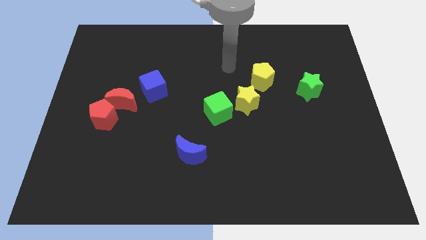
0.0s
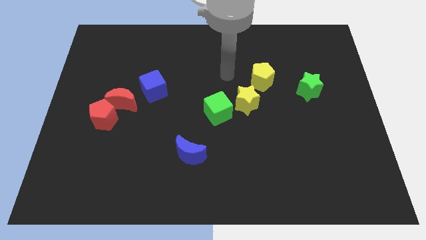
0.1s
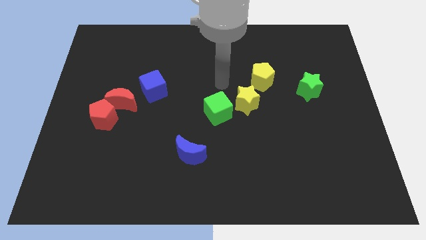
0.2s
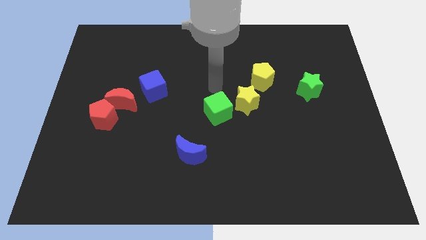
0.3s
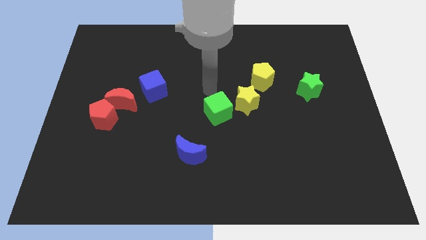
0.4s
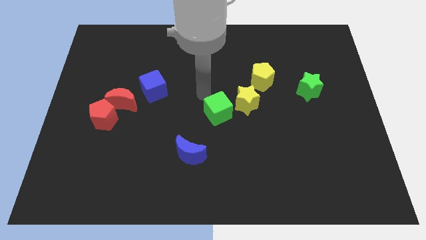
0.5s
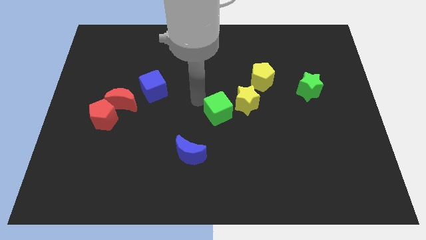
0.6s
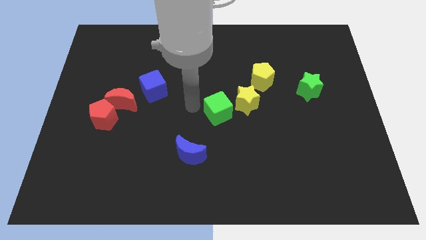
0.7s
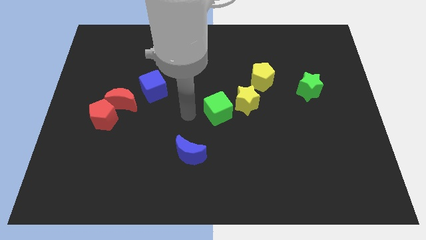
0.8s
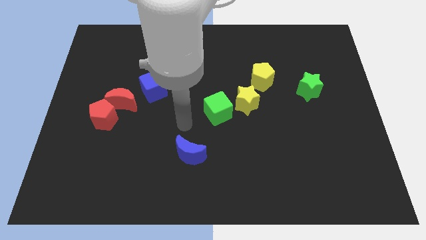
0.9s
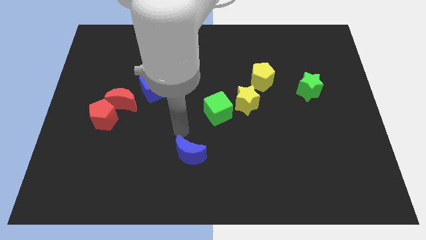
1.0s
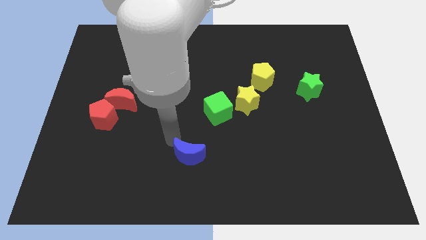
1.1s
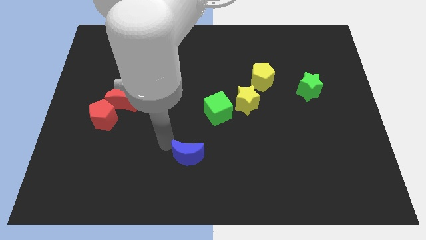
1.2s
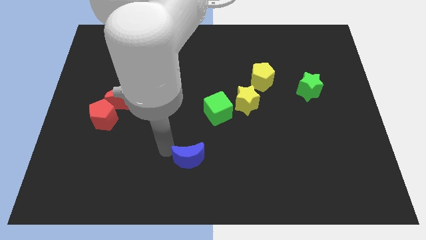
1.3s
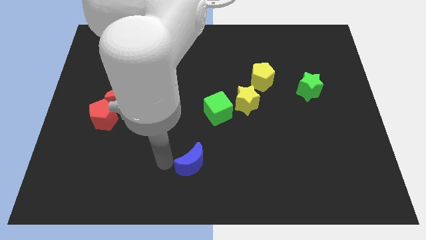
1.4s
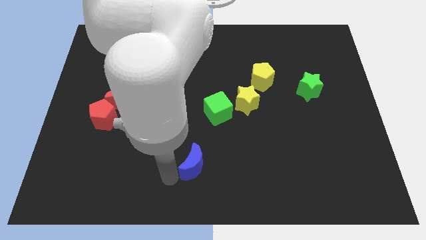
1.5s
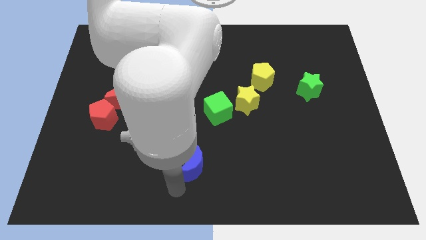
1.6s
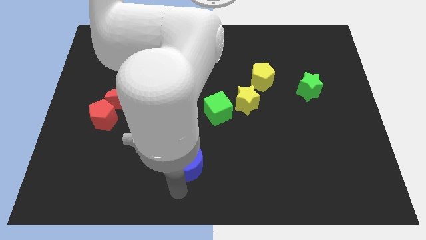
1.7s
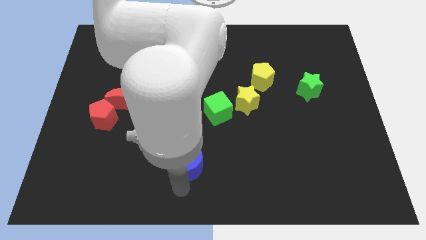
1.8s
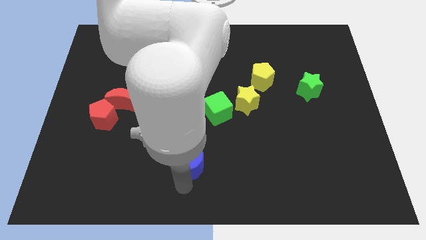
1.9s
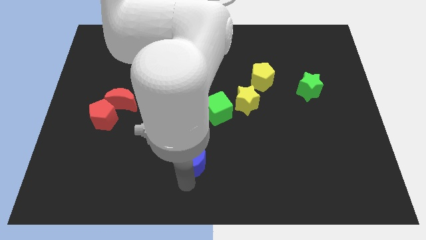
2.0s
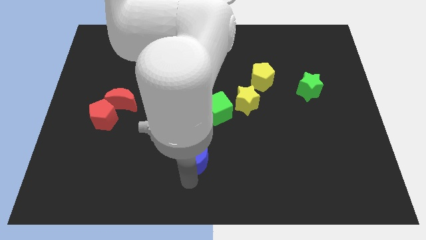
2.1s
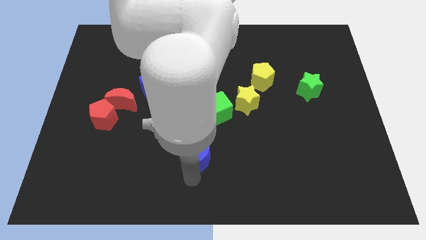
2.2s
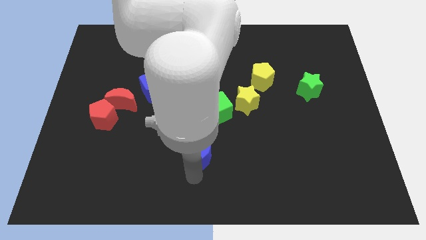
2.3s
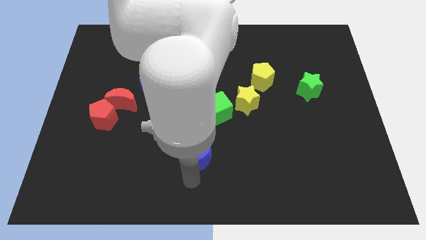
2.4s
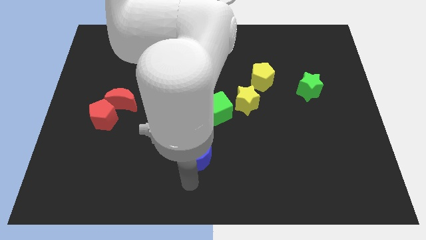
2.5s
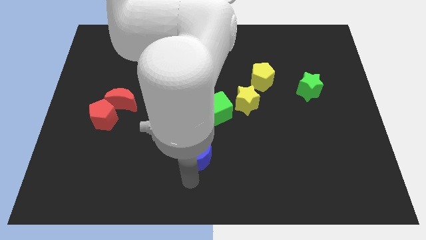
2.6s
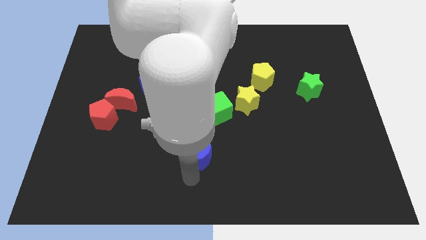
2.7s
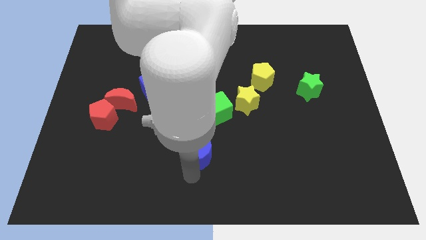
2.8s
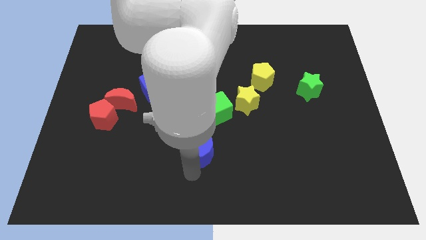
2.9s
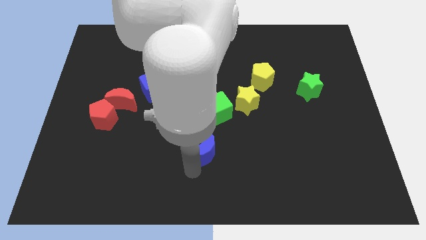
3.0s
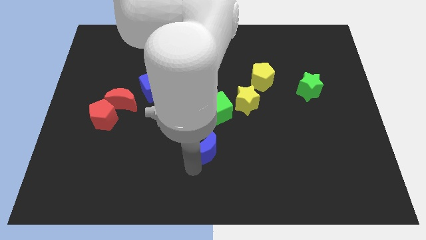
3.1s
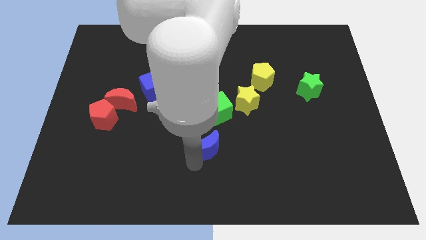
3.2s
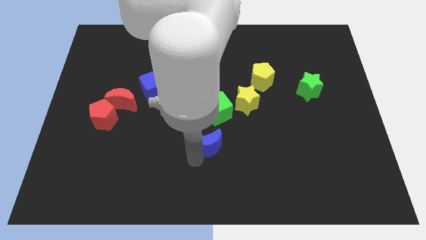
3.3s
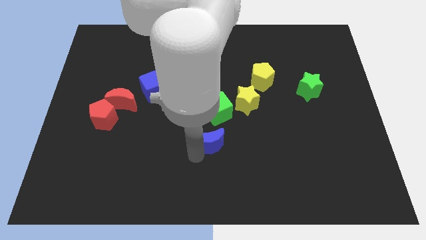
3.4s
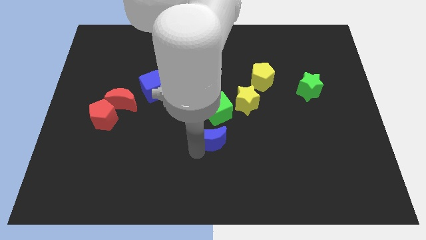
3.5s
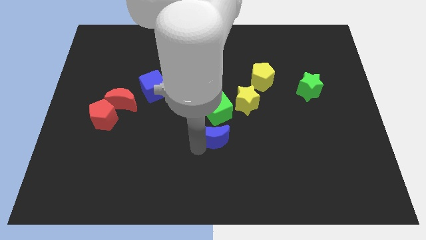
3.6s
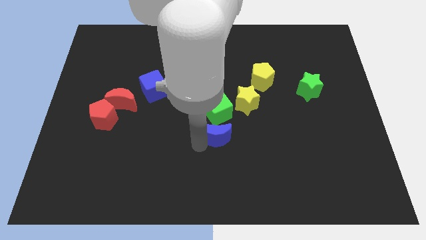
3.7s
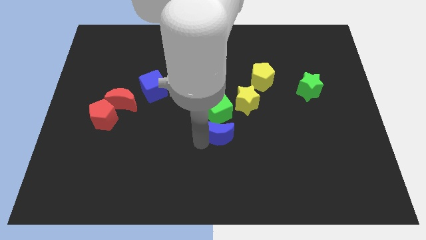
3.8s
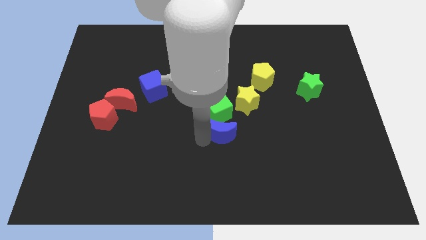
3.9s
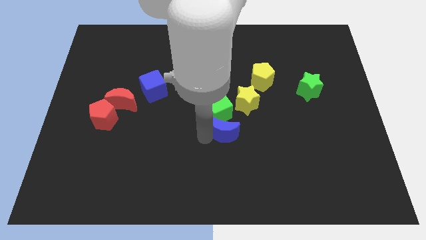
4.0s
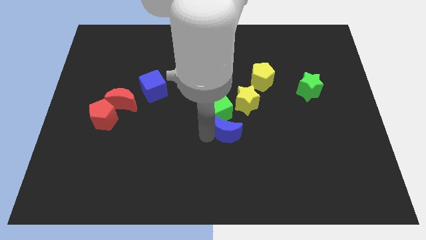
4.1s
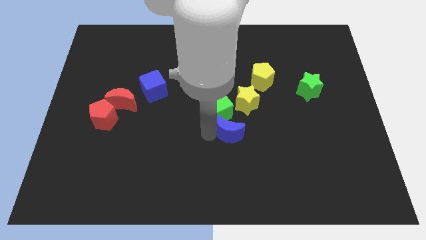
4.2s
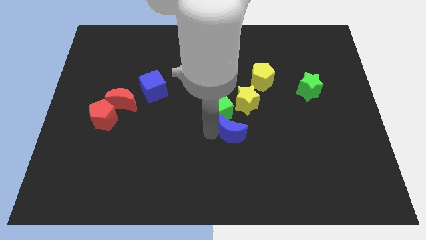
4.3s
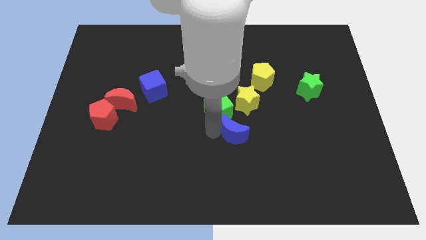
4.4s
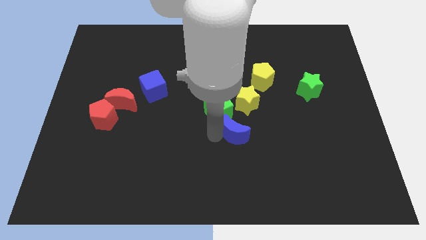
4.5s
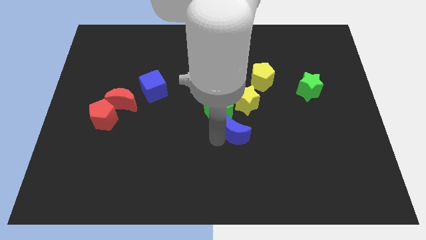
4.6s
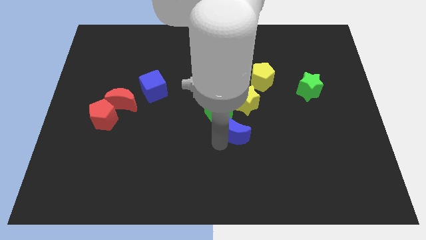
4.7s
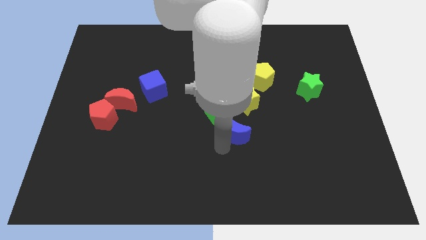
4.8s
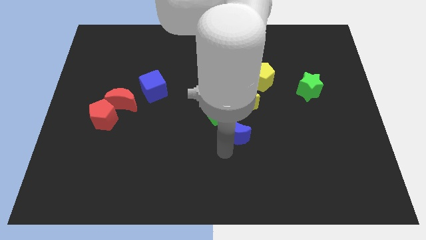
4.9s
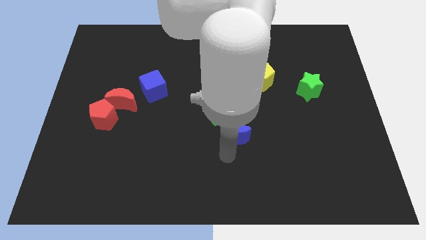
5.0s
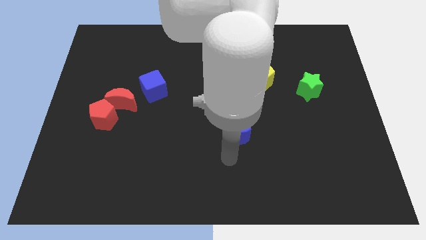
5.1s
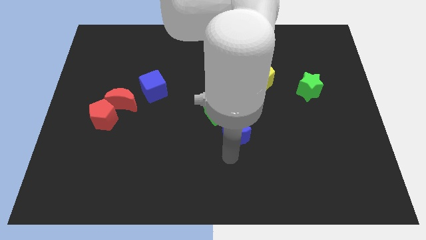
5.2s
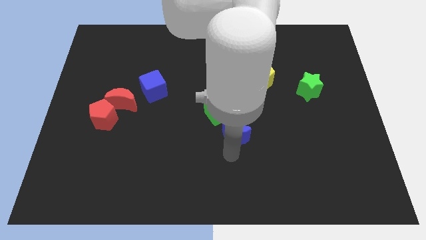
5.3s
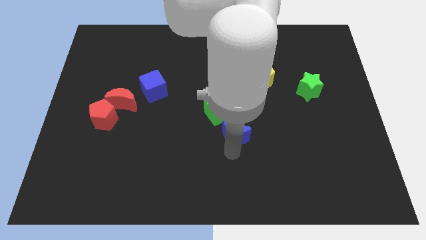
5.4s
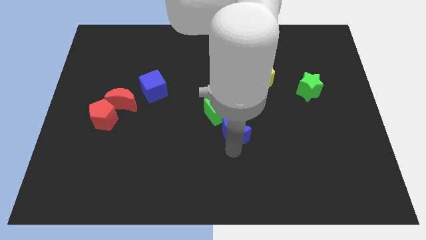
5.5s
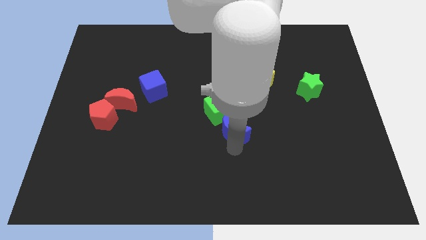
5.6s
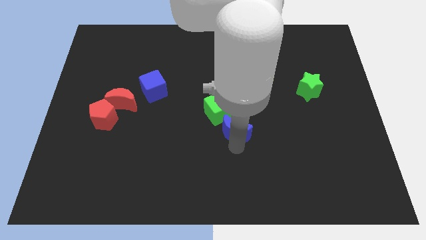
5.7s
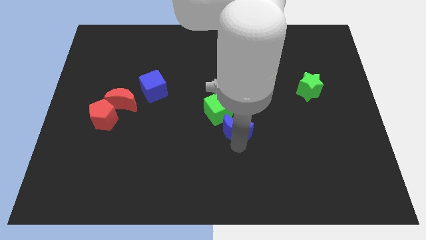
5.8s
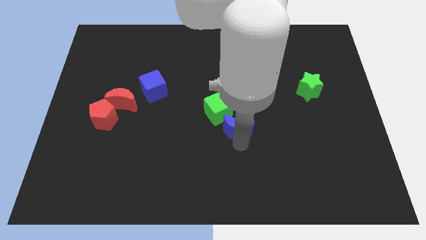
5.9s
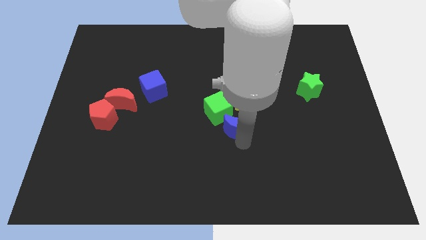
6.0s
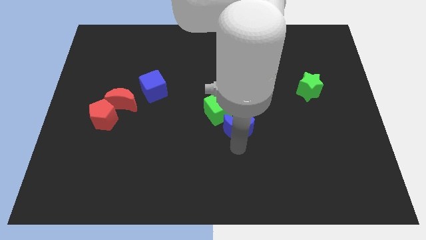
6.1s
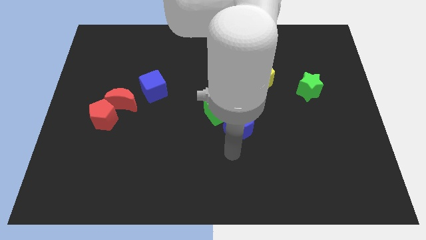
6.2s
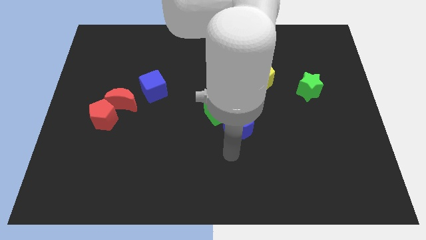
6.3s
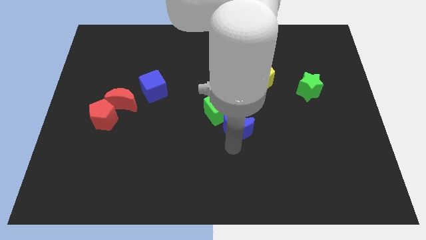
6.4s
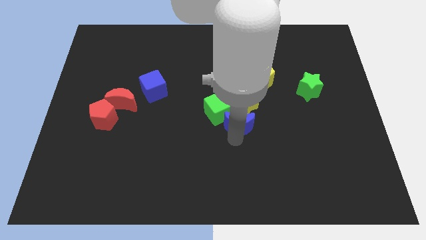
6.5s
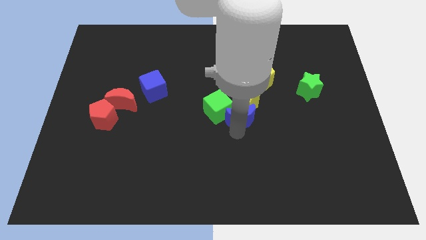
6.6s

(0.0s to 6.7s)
move the blue moon to the yellow star
